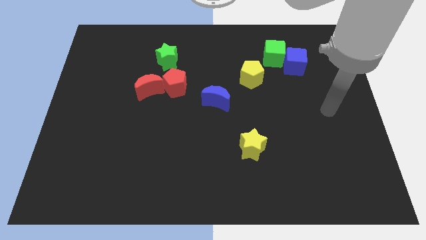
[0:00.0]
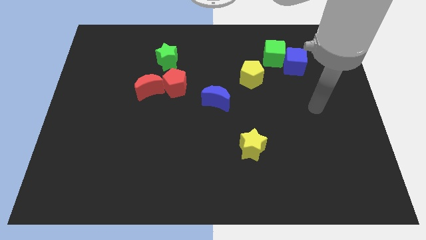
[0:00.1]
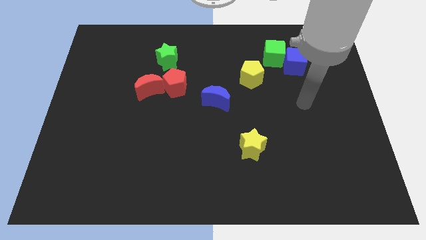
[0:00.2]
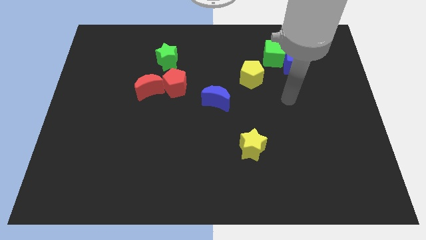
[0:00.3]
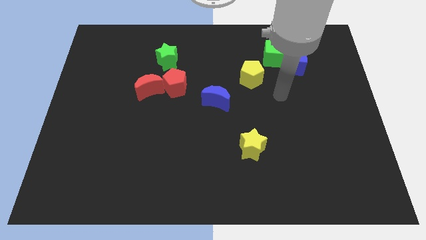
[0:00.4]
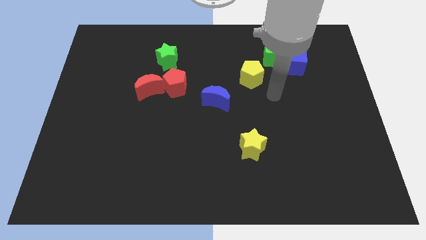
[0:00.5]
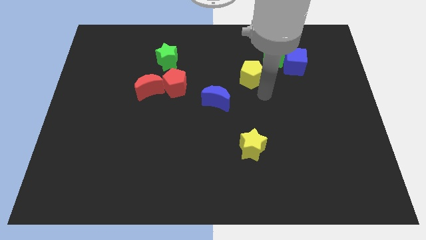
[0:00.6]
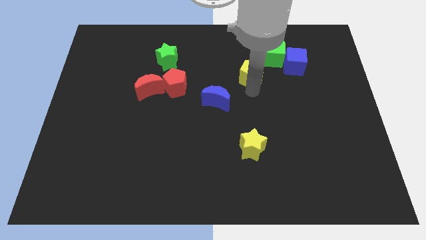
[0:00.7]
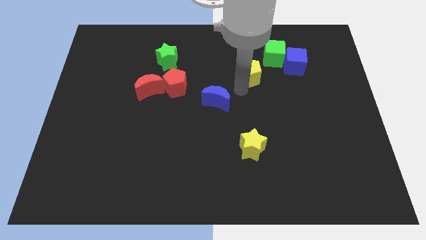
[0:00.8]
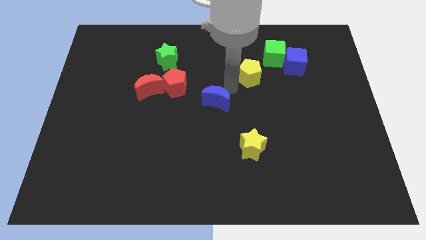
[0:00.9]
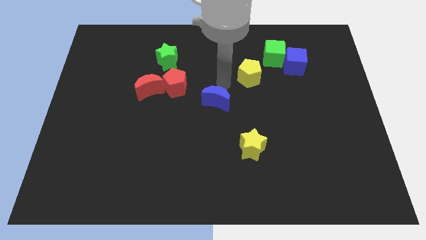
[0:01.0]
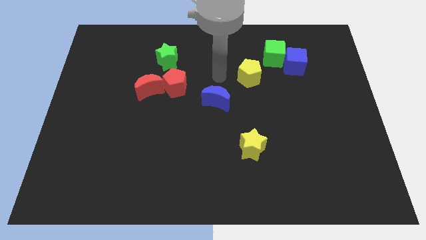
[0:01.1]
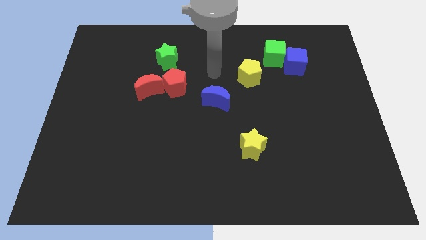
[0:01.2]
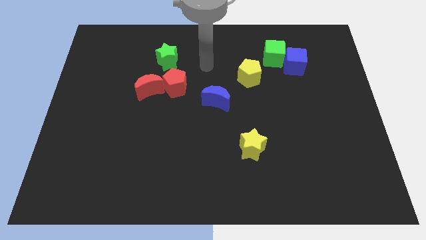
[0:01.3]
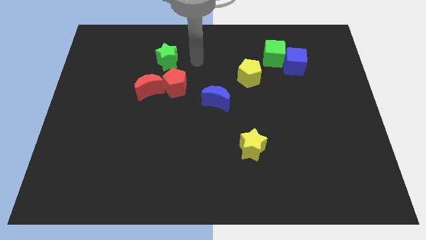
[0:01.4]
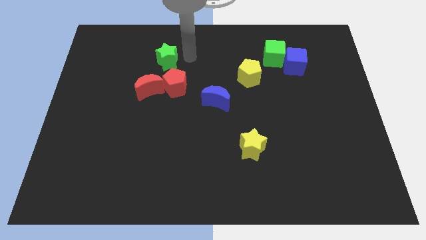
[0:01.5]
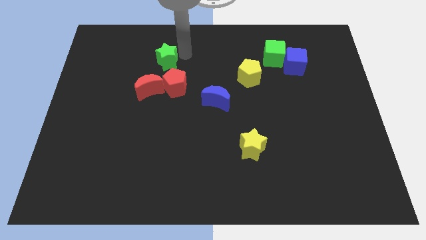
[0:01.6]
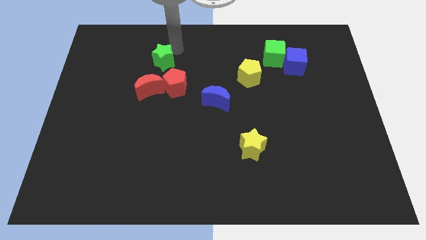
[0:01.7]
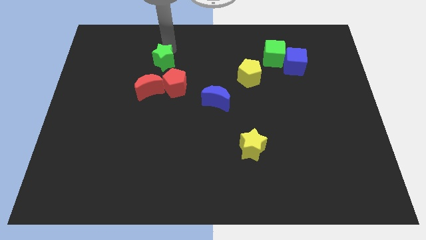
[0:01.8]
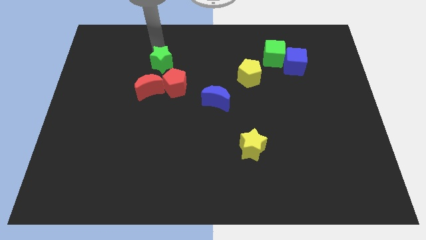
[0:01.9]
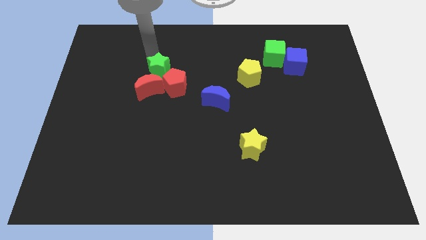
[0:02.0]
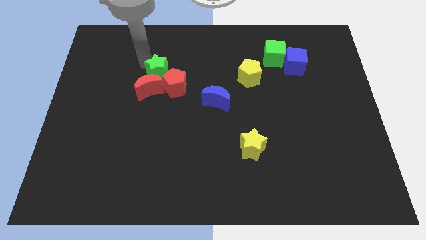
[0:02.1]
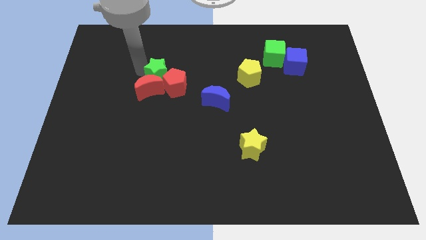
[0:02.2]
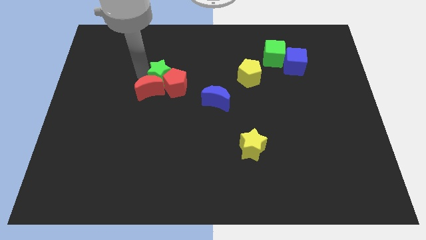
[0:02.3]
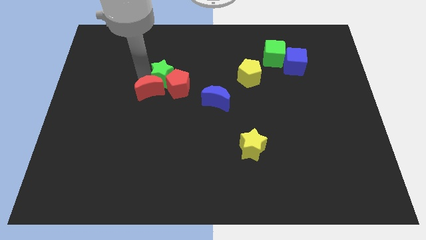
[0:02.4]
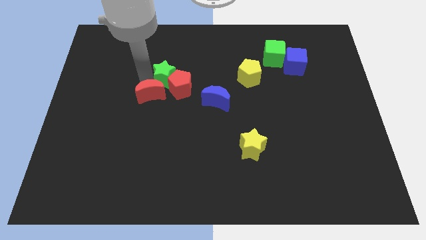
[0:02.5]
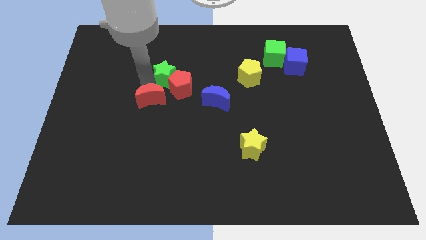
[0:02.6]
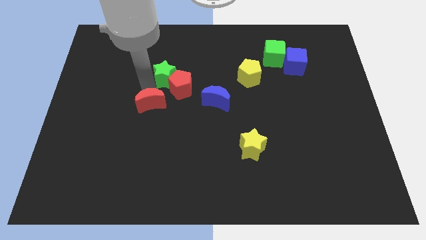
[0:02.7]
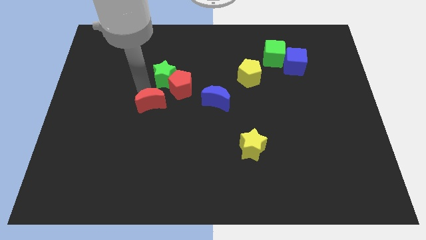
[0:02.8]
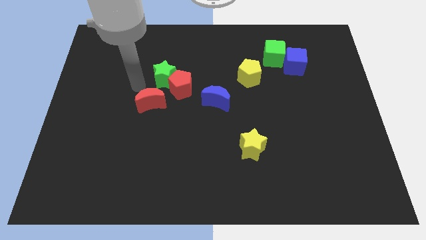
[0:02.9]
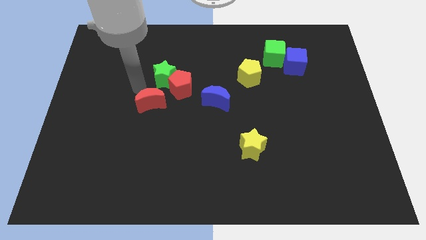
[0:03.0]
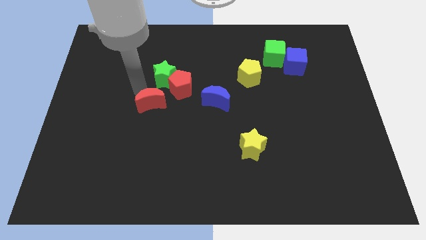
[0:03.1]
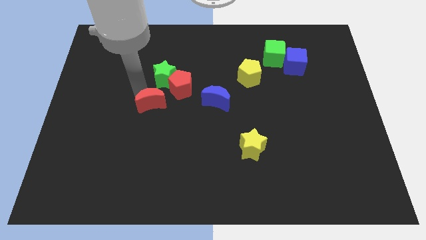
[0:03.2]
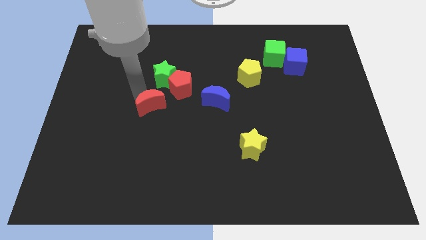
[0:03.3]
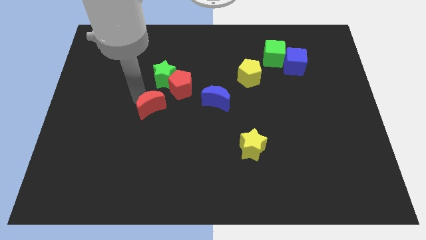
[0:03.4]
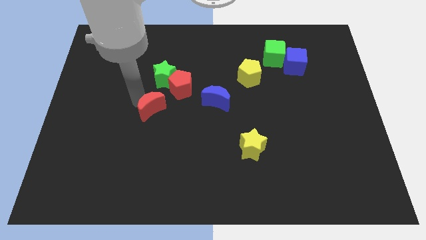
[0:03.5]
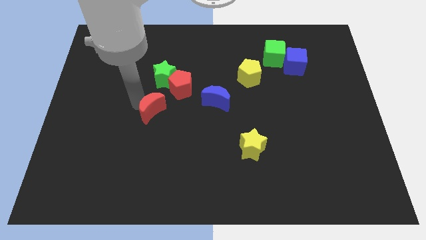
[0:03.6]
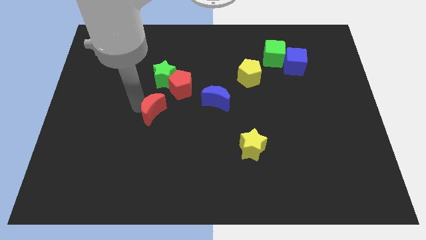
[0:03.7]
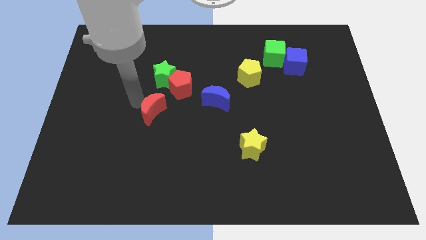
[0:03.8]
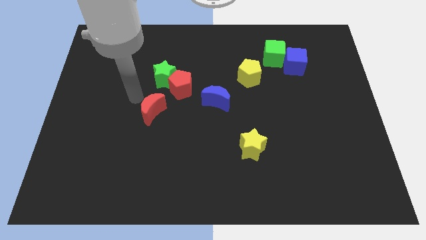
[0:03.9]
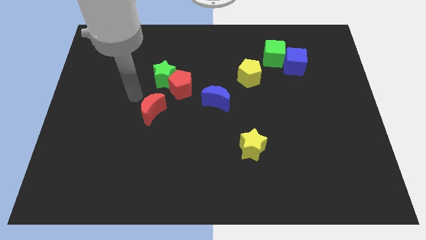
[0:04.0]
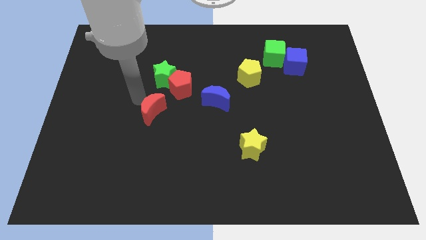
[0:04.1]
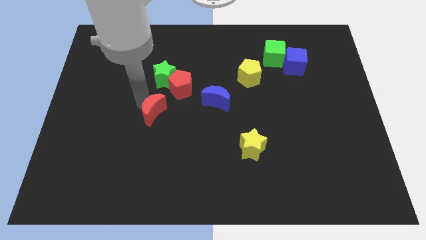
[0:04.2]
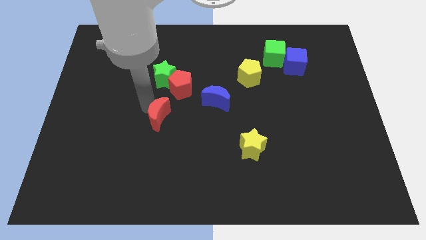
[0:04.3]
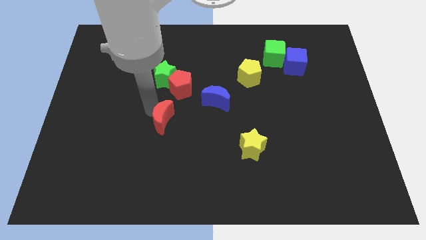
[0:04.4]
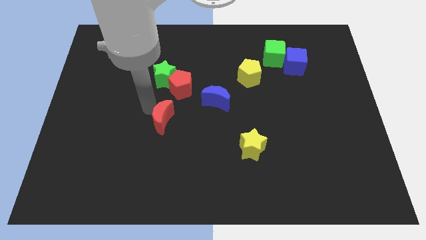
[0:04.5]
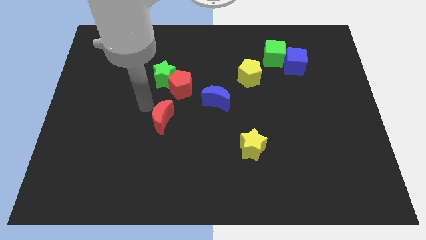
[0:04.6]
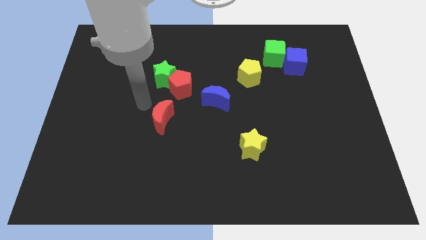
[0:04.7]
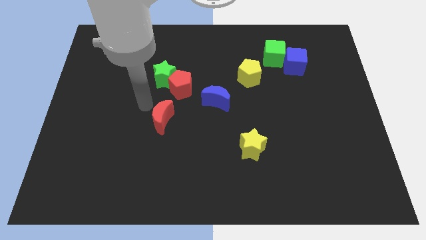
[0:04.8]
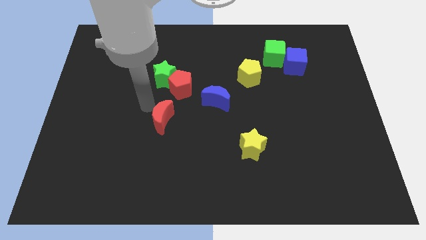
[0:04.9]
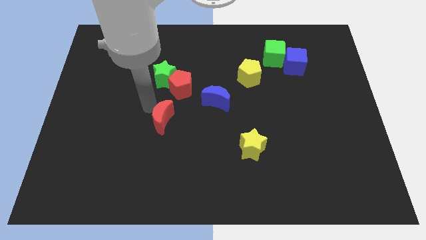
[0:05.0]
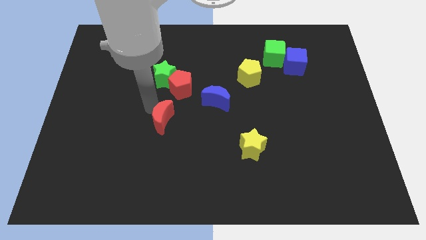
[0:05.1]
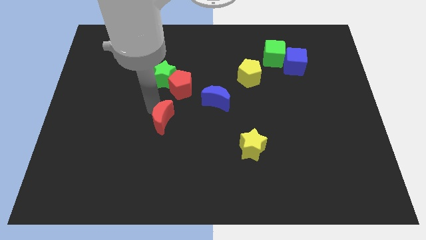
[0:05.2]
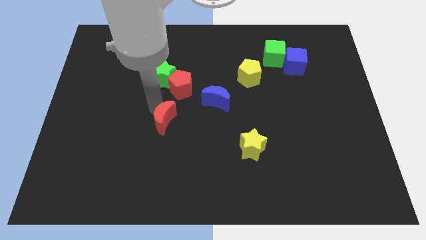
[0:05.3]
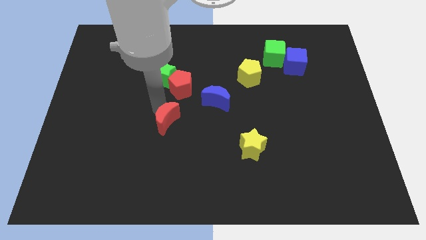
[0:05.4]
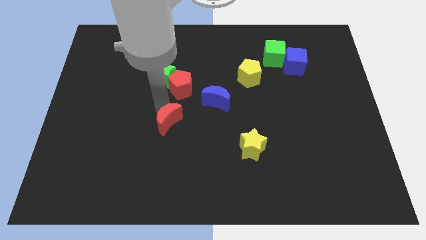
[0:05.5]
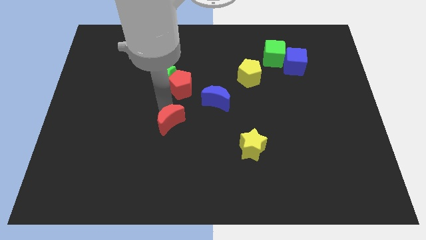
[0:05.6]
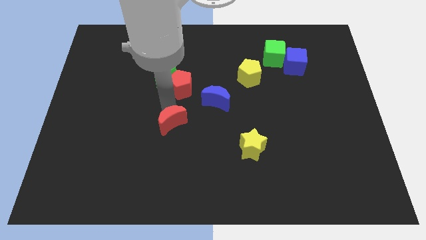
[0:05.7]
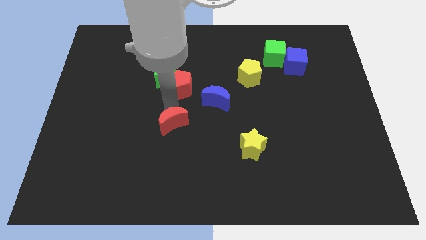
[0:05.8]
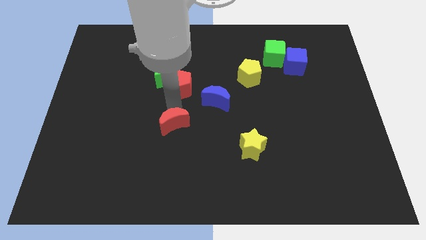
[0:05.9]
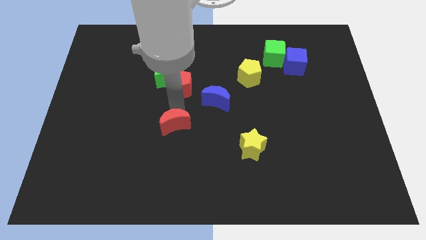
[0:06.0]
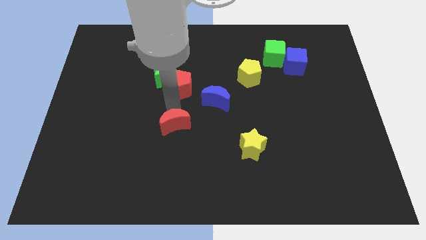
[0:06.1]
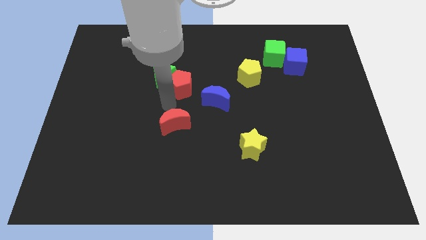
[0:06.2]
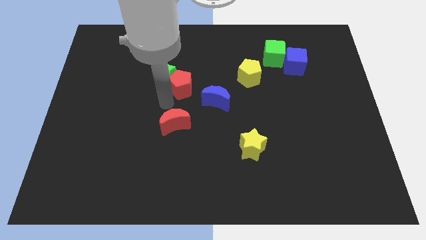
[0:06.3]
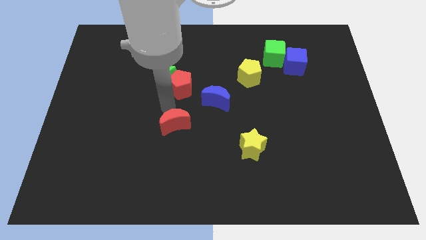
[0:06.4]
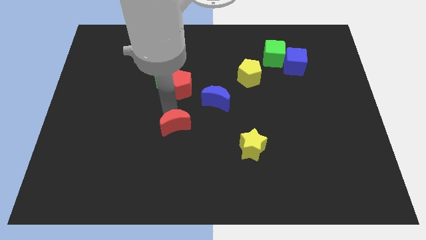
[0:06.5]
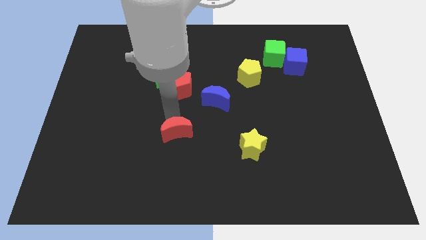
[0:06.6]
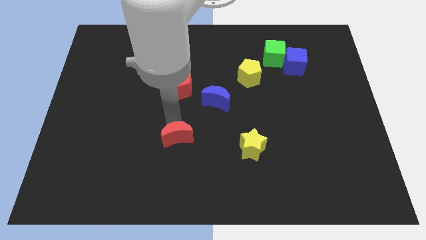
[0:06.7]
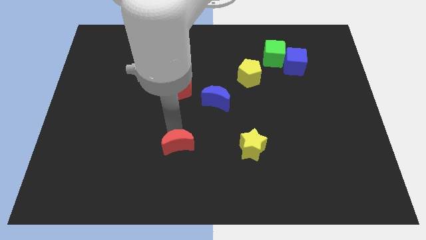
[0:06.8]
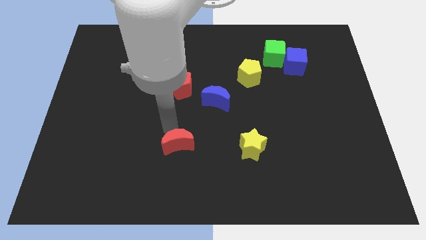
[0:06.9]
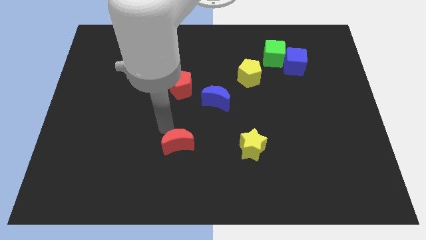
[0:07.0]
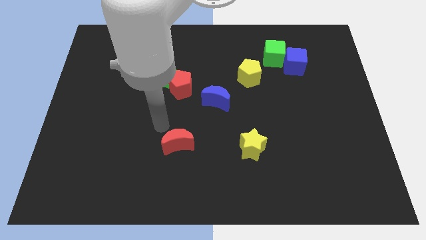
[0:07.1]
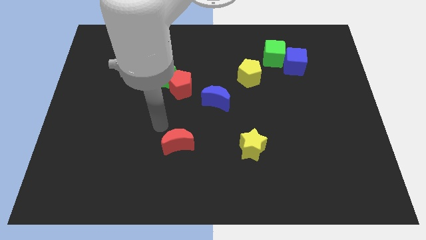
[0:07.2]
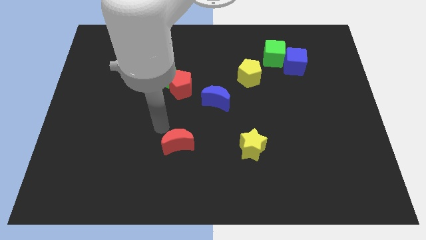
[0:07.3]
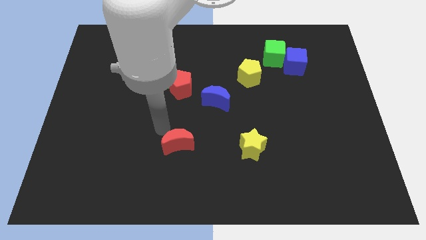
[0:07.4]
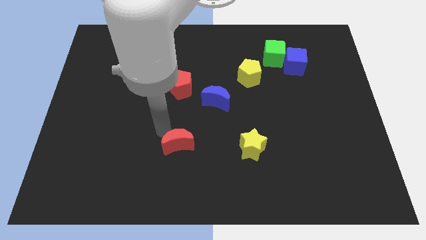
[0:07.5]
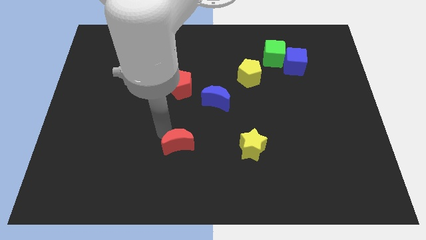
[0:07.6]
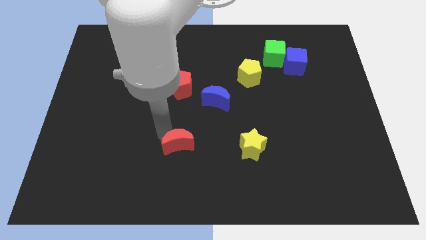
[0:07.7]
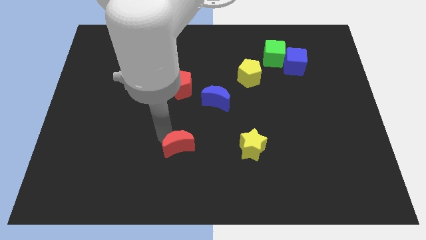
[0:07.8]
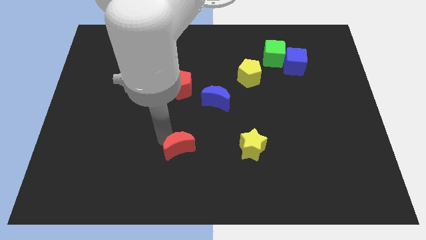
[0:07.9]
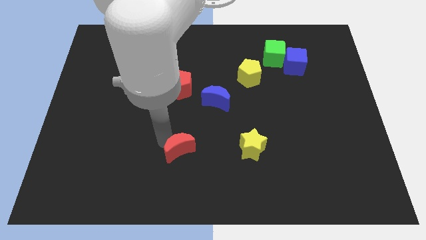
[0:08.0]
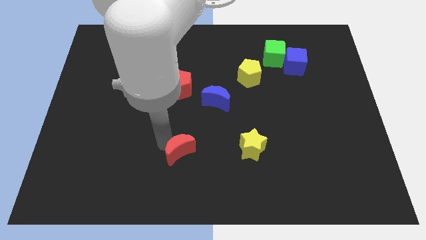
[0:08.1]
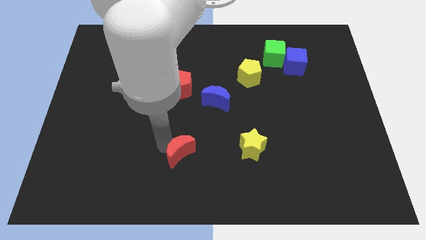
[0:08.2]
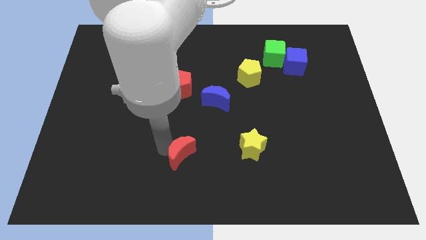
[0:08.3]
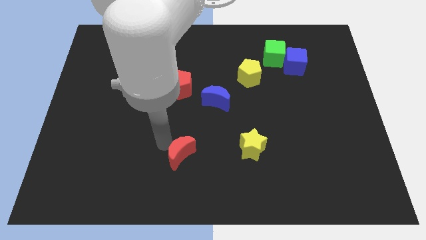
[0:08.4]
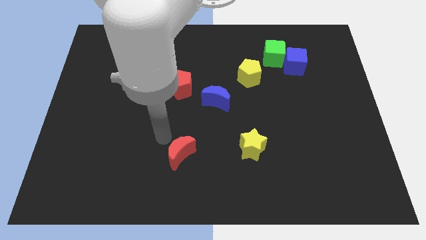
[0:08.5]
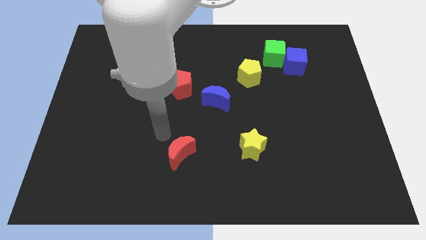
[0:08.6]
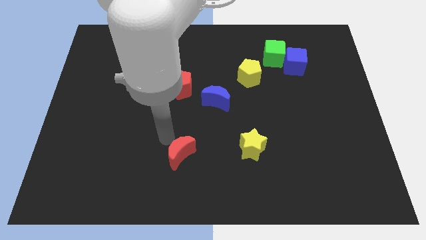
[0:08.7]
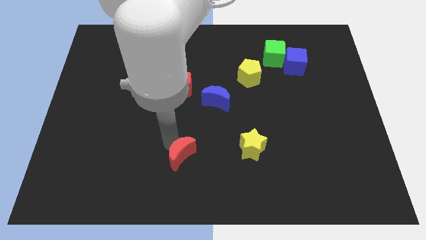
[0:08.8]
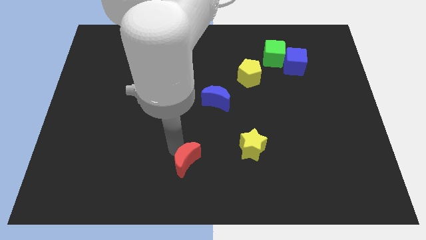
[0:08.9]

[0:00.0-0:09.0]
put the red moon to the bottom
